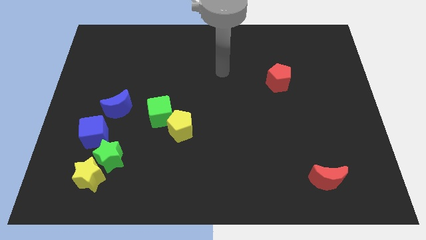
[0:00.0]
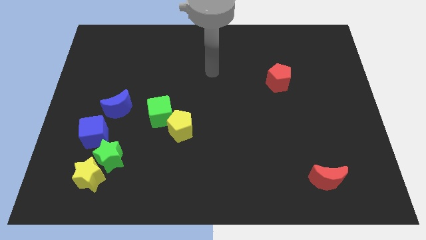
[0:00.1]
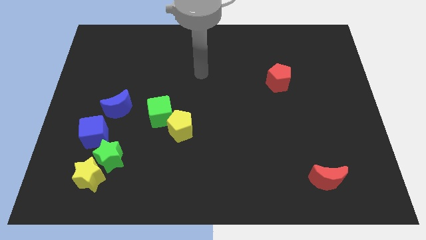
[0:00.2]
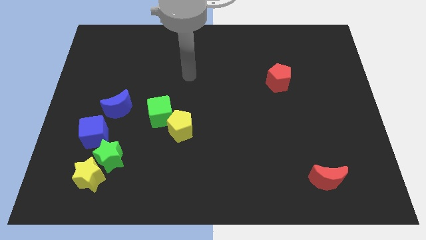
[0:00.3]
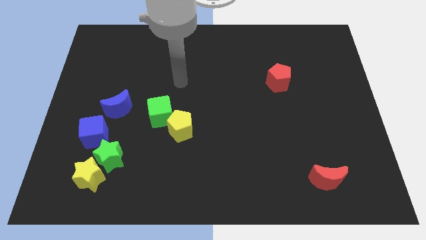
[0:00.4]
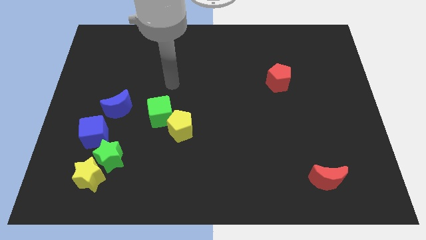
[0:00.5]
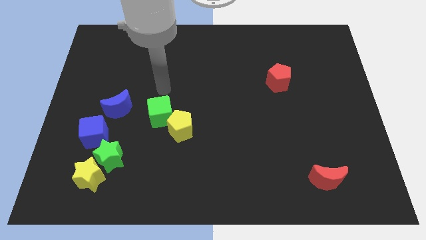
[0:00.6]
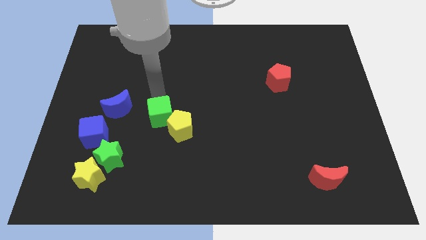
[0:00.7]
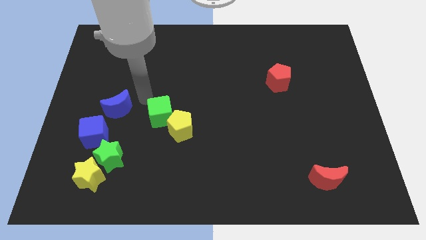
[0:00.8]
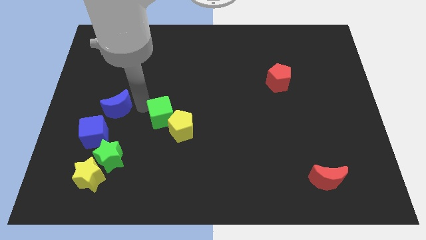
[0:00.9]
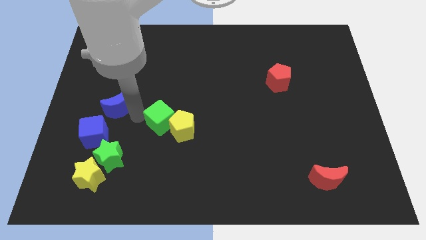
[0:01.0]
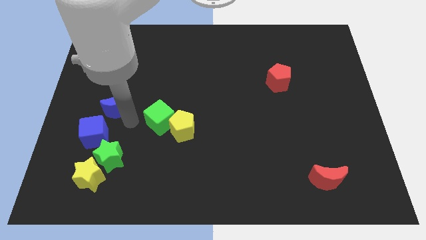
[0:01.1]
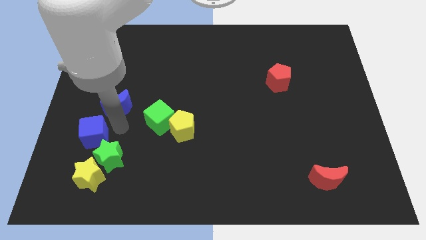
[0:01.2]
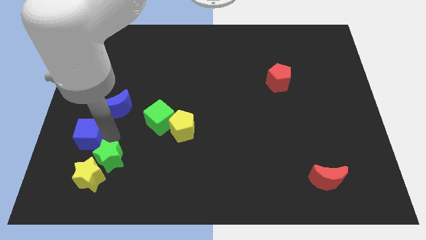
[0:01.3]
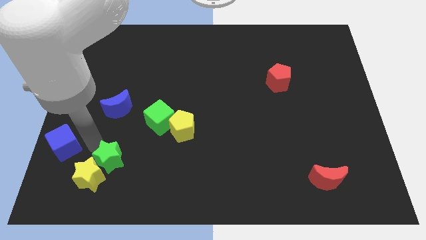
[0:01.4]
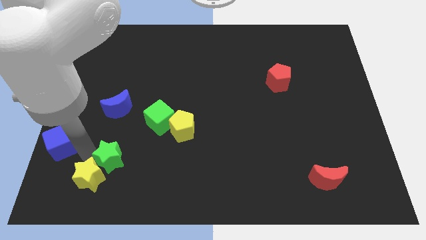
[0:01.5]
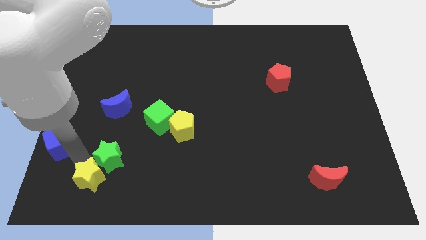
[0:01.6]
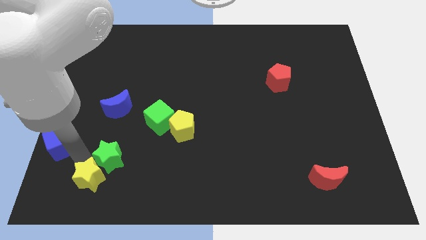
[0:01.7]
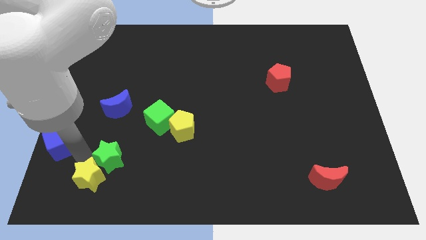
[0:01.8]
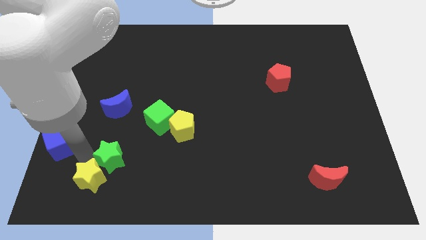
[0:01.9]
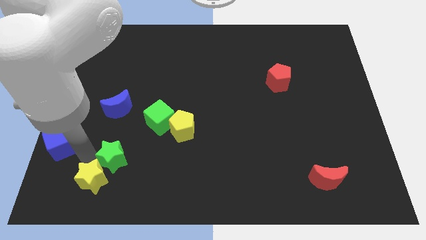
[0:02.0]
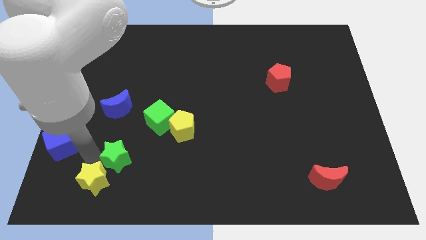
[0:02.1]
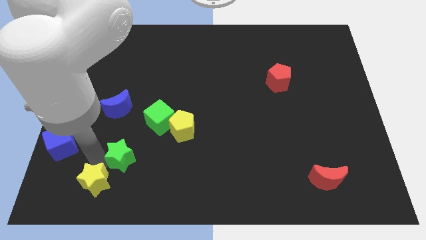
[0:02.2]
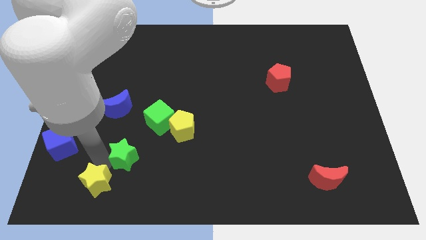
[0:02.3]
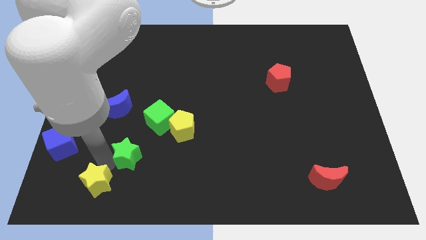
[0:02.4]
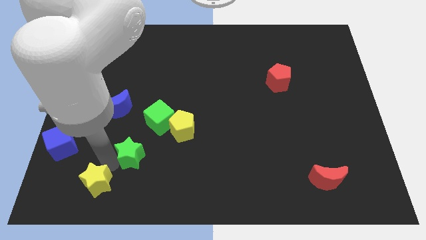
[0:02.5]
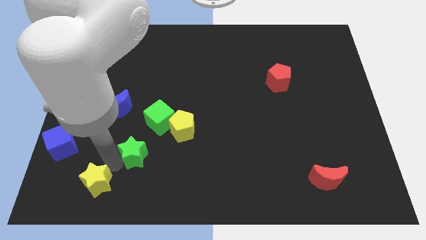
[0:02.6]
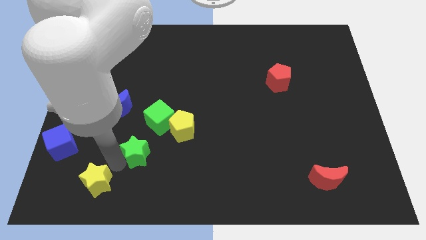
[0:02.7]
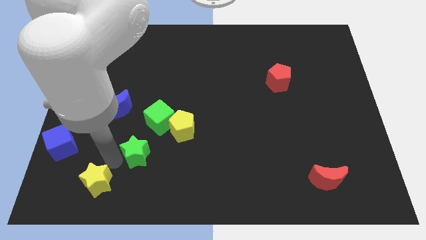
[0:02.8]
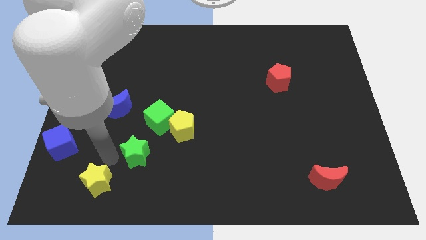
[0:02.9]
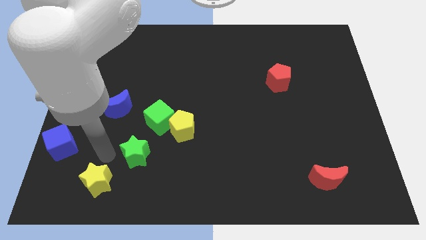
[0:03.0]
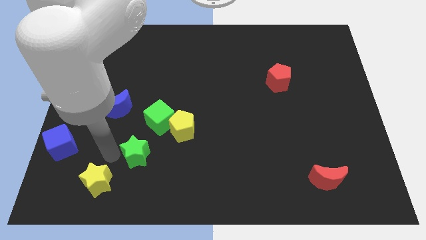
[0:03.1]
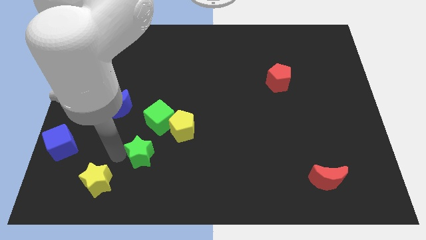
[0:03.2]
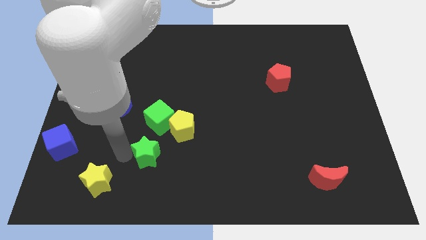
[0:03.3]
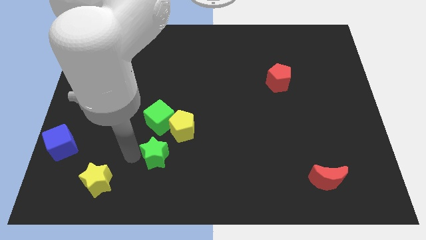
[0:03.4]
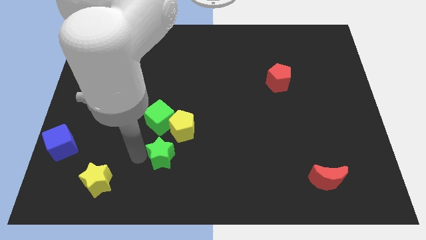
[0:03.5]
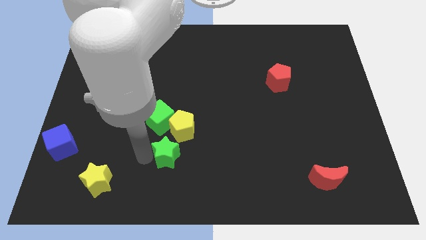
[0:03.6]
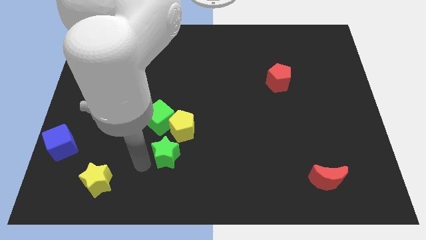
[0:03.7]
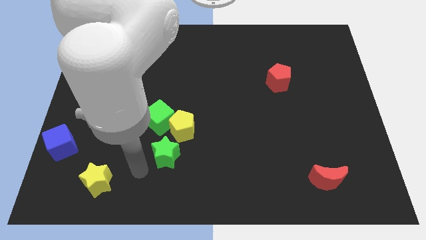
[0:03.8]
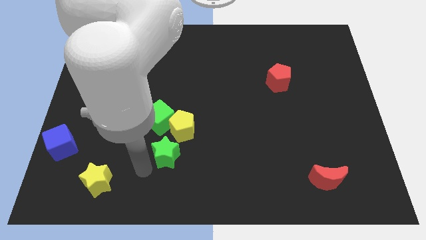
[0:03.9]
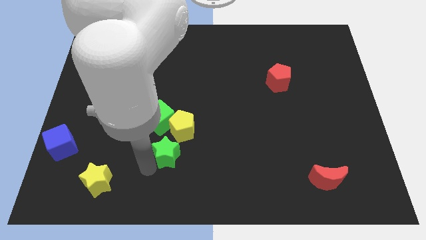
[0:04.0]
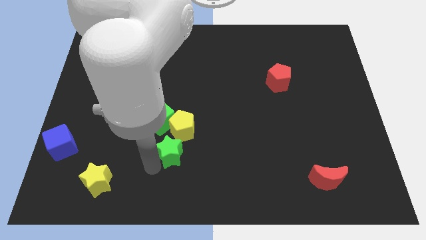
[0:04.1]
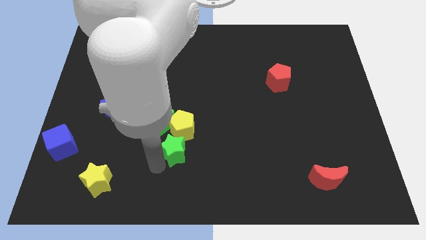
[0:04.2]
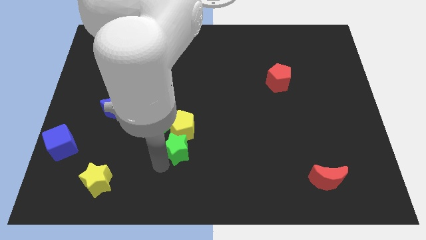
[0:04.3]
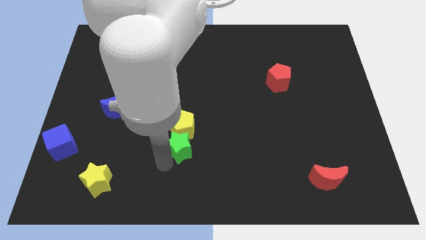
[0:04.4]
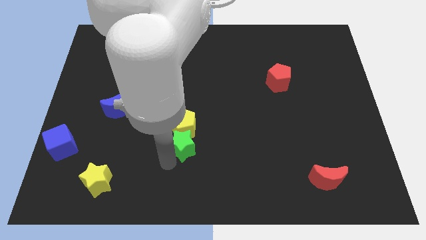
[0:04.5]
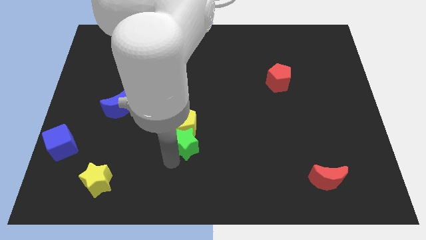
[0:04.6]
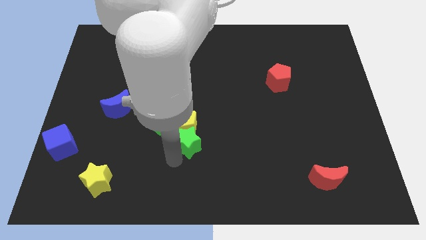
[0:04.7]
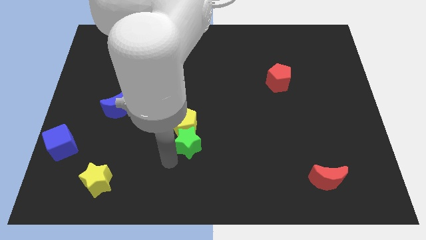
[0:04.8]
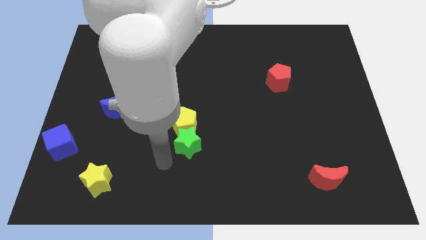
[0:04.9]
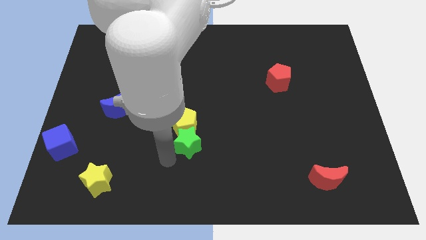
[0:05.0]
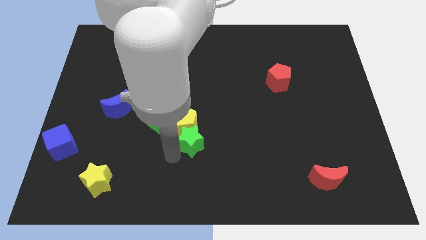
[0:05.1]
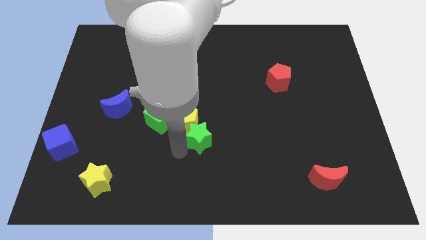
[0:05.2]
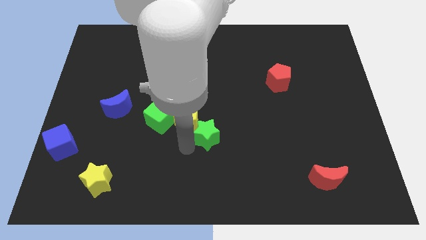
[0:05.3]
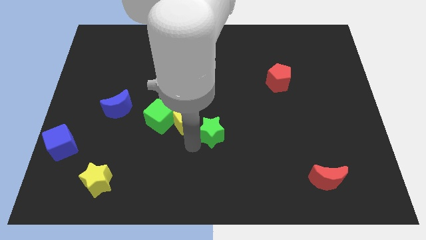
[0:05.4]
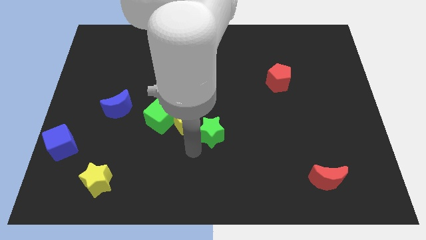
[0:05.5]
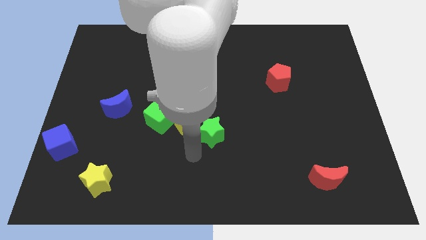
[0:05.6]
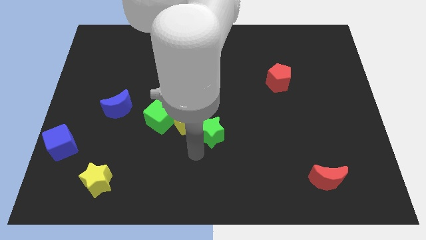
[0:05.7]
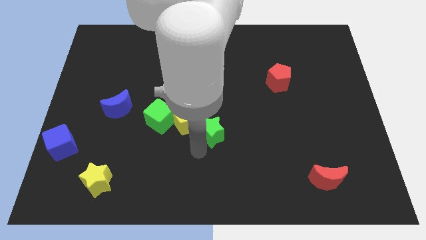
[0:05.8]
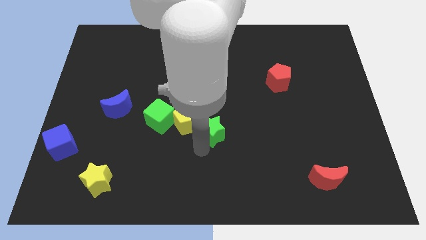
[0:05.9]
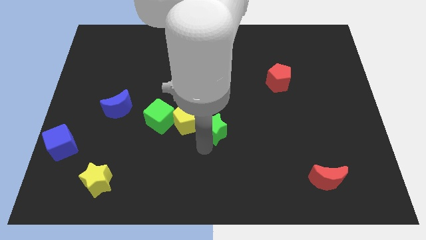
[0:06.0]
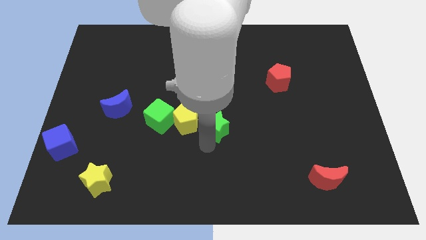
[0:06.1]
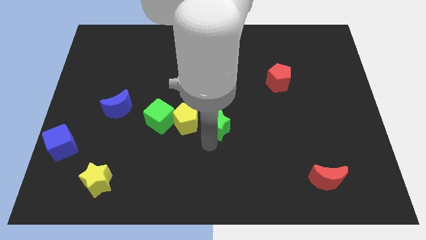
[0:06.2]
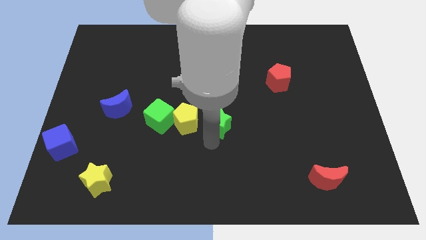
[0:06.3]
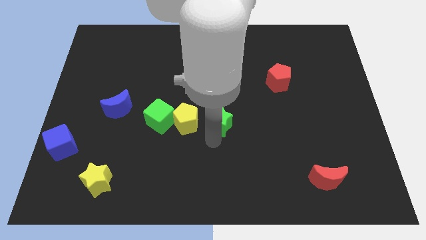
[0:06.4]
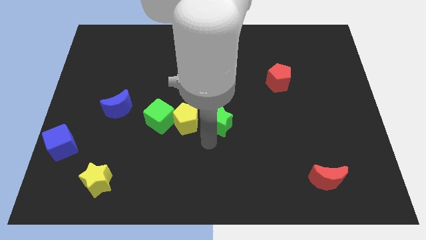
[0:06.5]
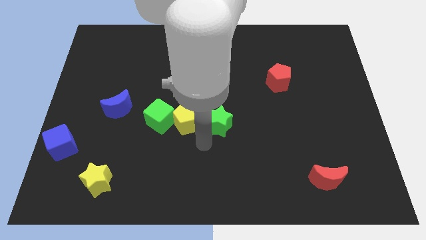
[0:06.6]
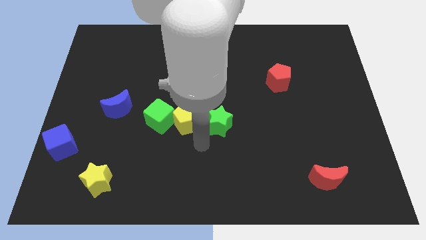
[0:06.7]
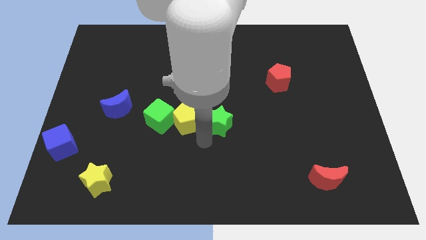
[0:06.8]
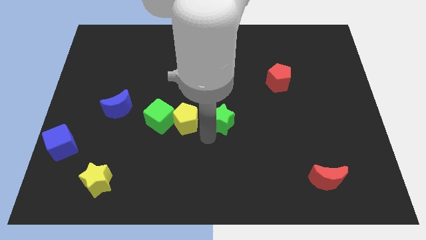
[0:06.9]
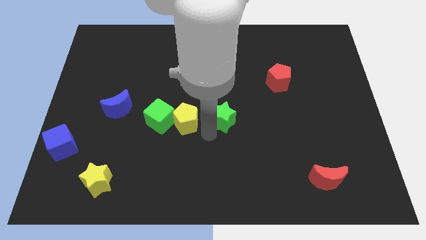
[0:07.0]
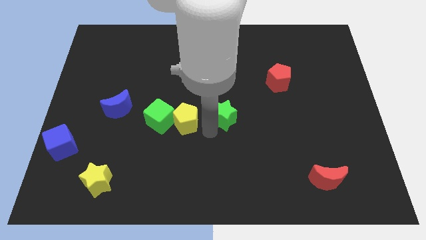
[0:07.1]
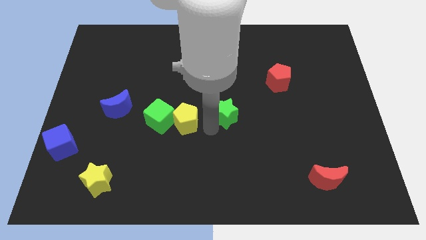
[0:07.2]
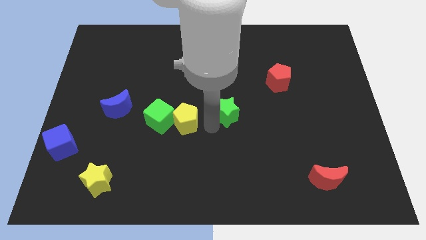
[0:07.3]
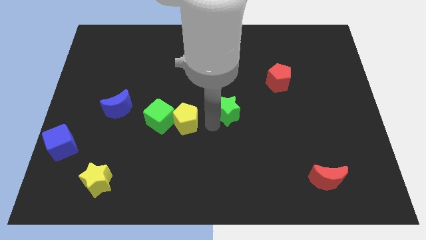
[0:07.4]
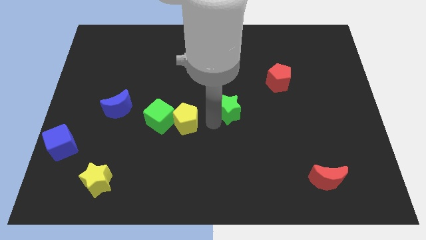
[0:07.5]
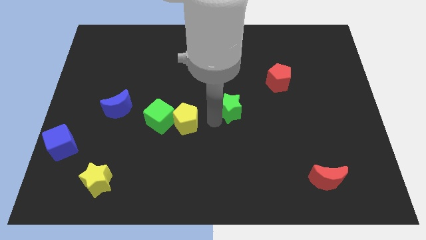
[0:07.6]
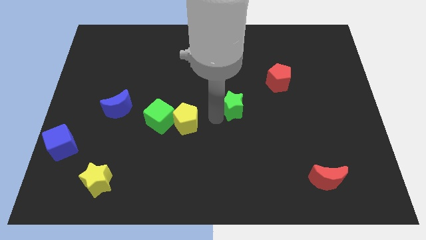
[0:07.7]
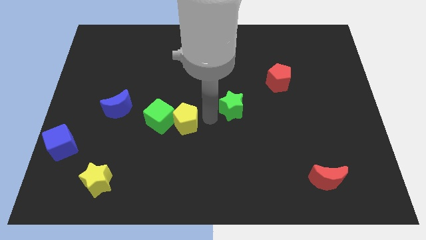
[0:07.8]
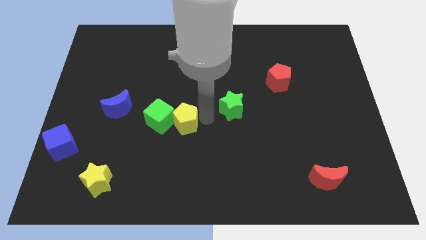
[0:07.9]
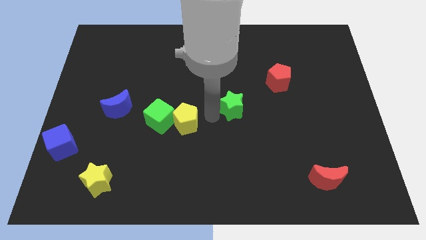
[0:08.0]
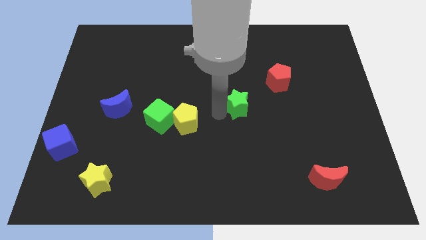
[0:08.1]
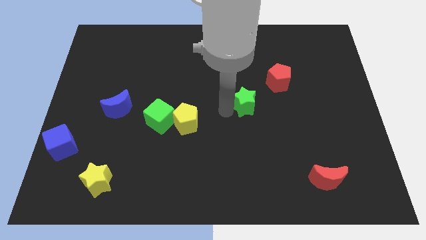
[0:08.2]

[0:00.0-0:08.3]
slide the green star diagonally down and to the left of the red pentagon

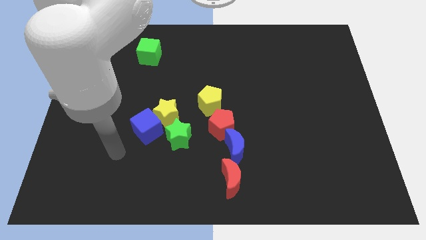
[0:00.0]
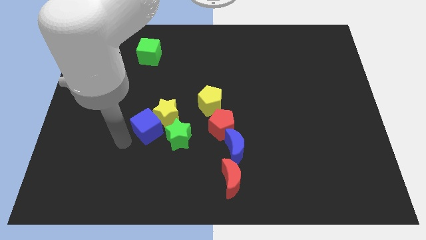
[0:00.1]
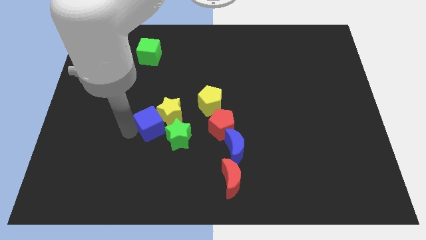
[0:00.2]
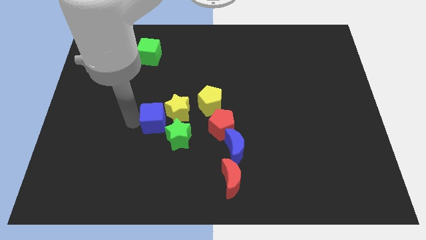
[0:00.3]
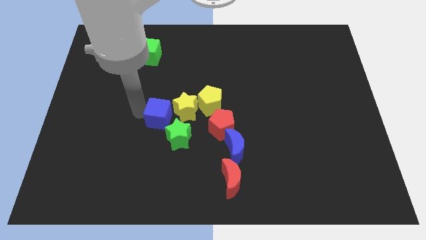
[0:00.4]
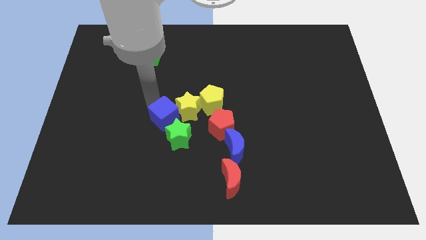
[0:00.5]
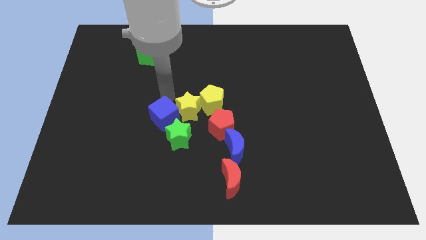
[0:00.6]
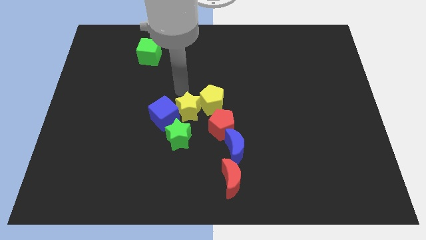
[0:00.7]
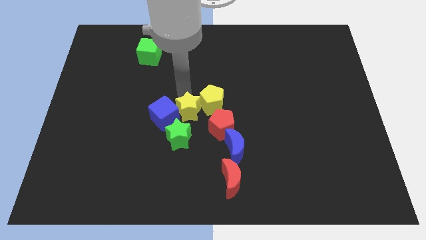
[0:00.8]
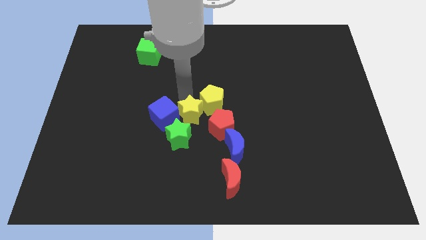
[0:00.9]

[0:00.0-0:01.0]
push the yellow star diagonally down and to the right of the blue cube
